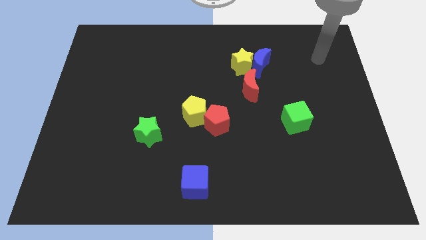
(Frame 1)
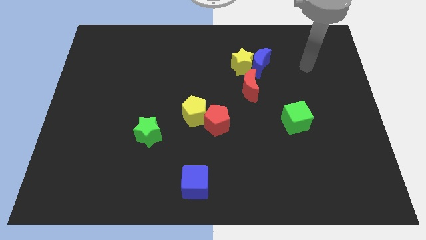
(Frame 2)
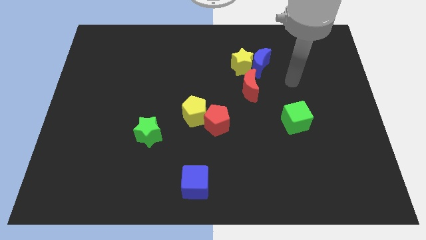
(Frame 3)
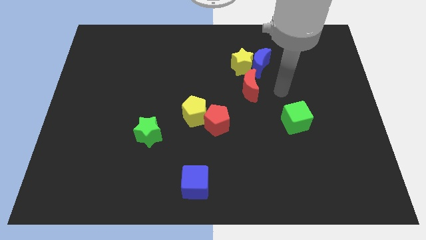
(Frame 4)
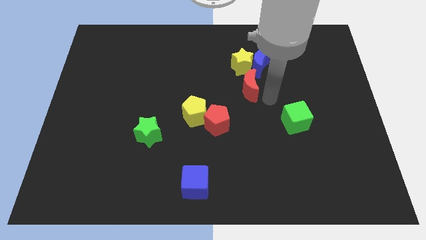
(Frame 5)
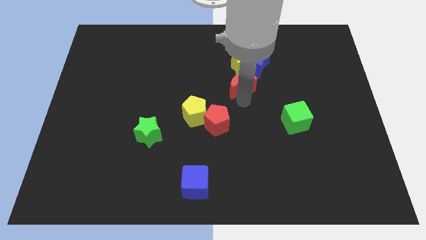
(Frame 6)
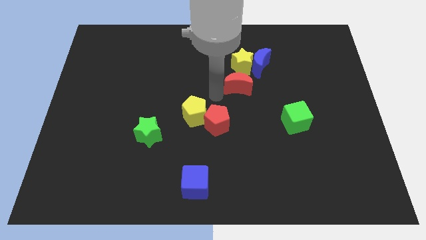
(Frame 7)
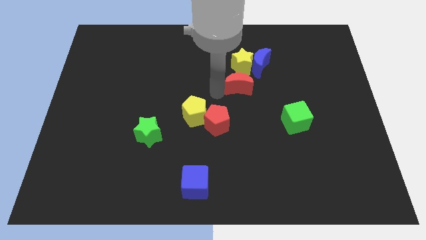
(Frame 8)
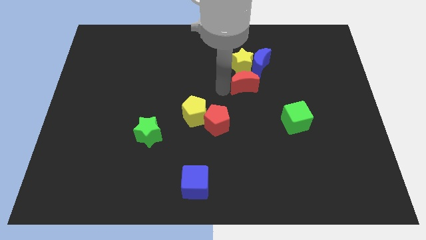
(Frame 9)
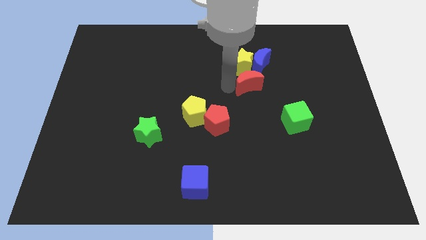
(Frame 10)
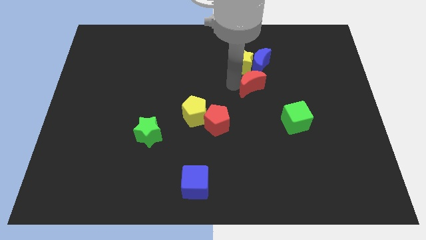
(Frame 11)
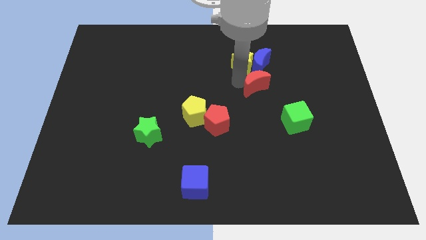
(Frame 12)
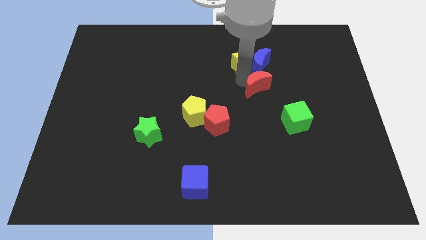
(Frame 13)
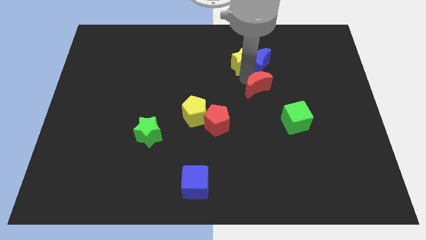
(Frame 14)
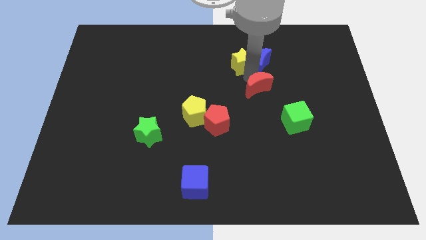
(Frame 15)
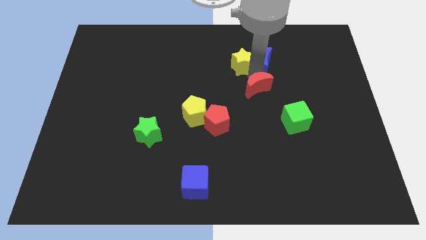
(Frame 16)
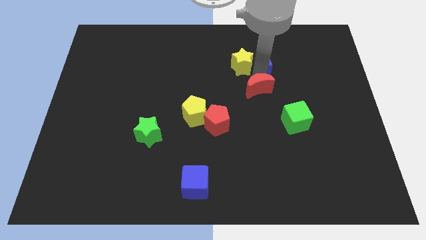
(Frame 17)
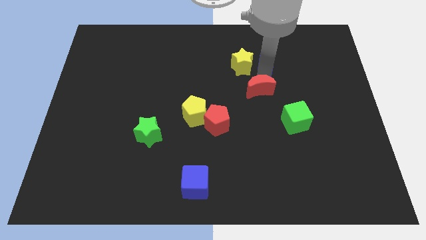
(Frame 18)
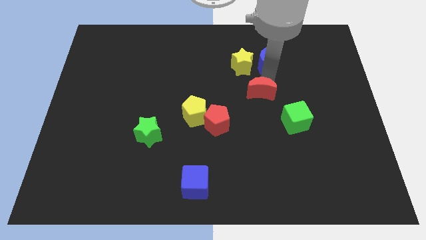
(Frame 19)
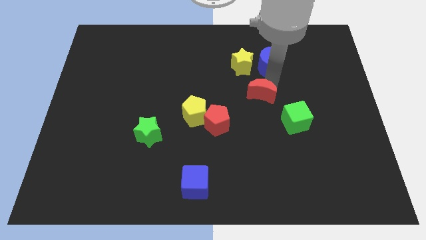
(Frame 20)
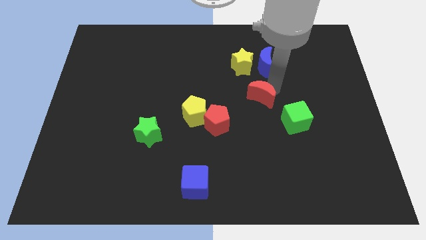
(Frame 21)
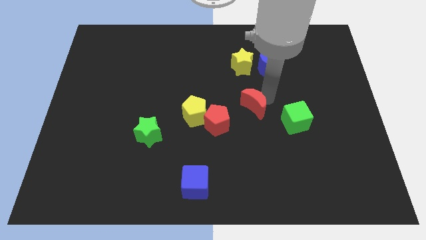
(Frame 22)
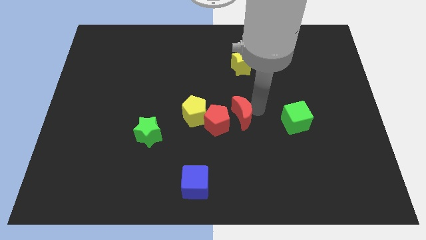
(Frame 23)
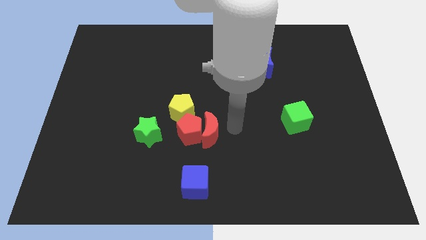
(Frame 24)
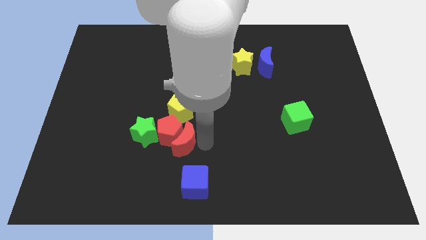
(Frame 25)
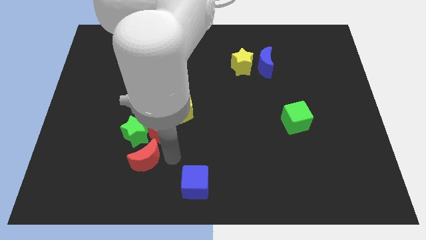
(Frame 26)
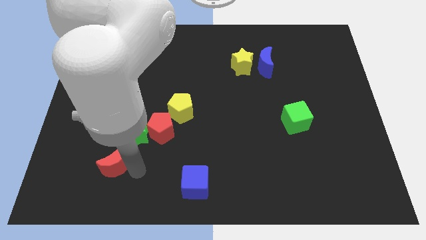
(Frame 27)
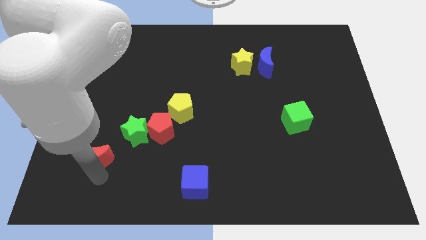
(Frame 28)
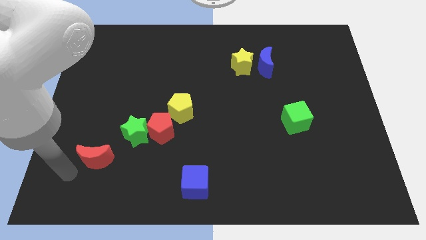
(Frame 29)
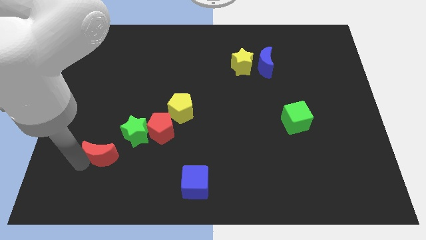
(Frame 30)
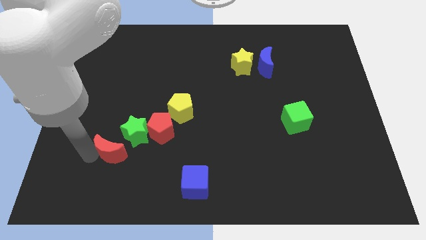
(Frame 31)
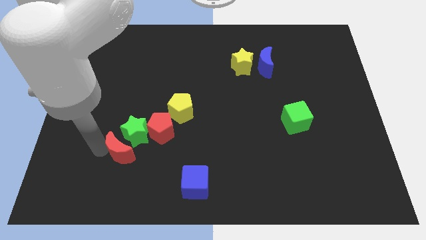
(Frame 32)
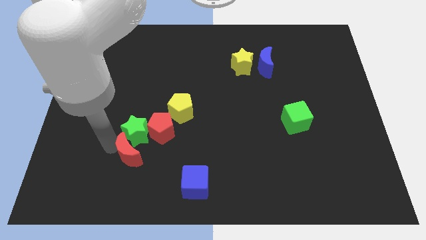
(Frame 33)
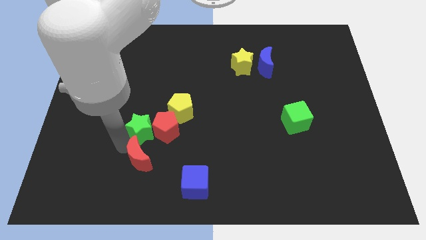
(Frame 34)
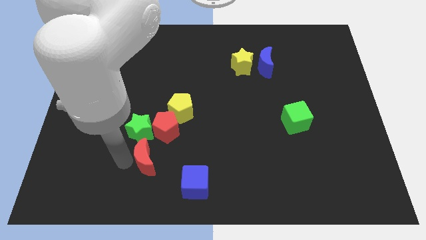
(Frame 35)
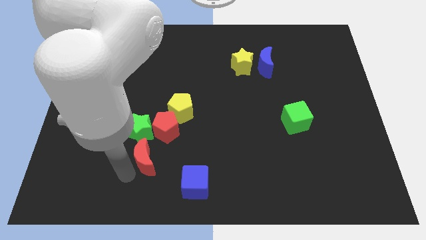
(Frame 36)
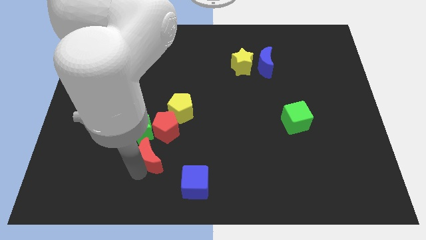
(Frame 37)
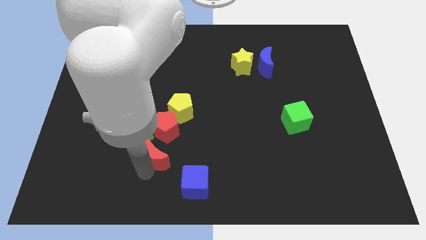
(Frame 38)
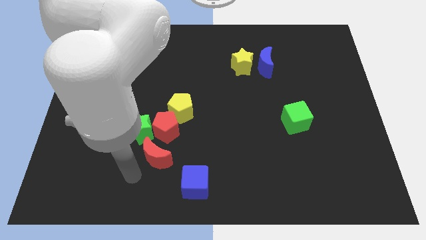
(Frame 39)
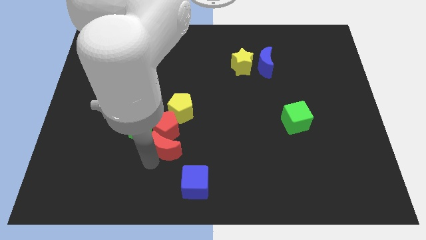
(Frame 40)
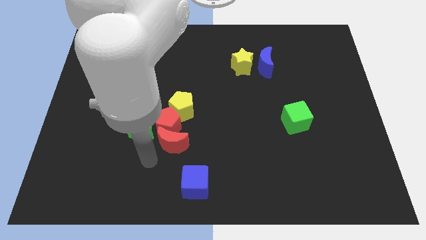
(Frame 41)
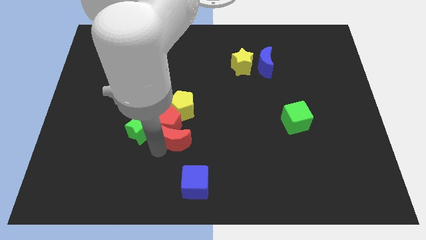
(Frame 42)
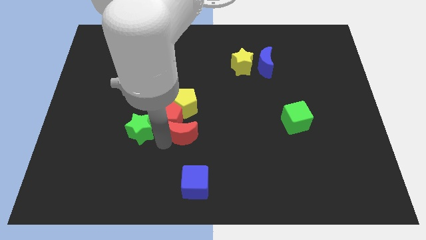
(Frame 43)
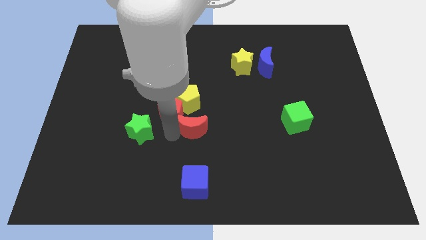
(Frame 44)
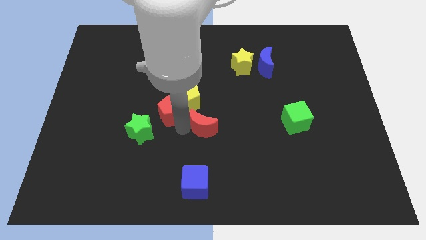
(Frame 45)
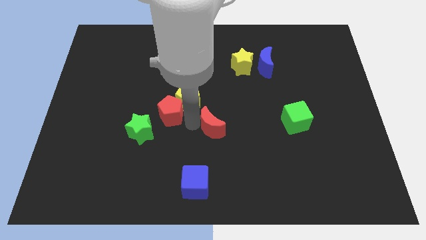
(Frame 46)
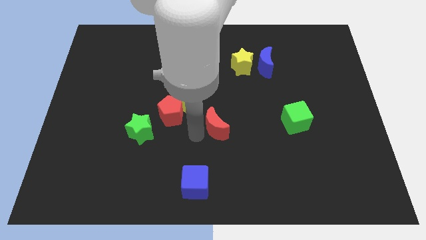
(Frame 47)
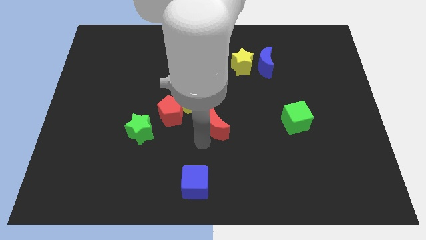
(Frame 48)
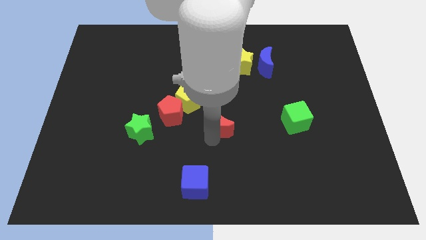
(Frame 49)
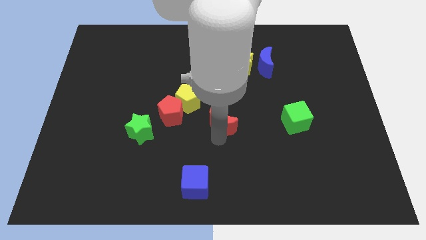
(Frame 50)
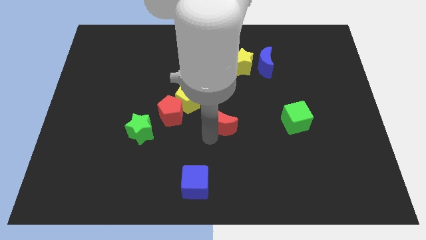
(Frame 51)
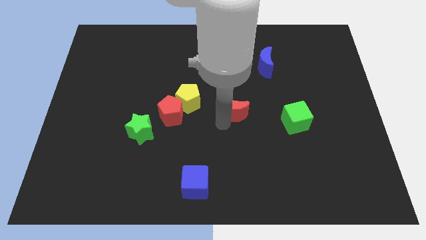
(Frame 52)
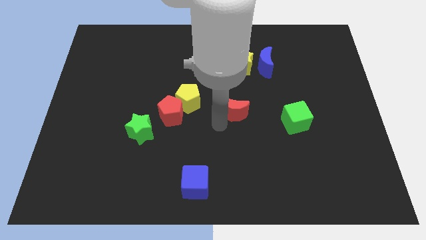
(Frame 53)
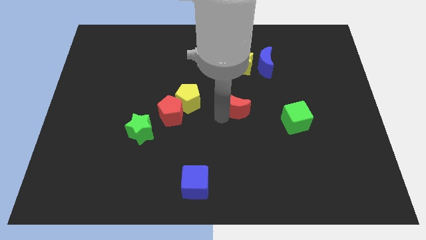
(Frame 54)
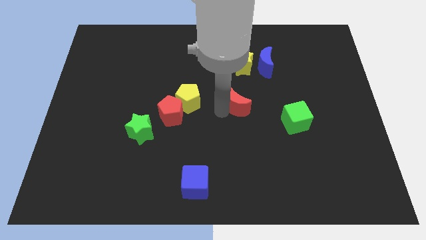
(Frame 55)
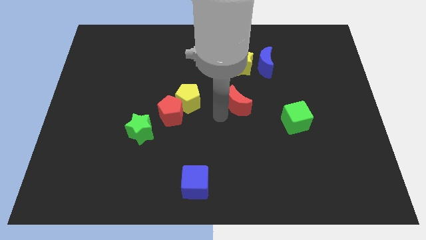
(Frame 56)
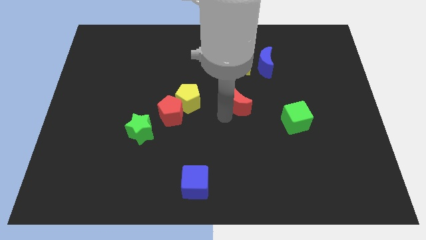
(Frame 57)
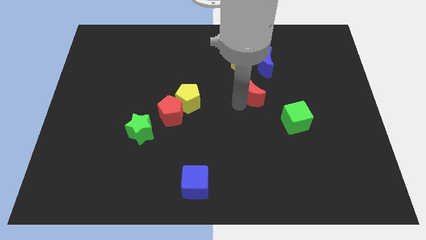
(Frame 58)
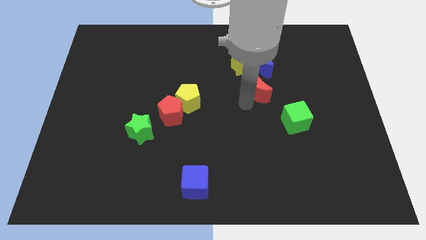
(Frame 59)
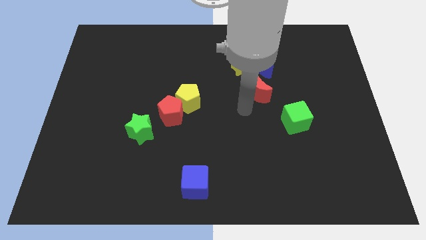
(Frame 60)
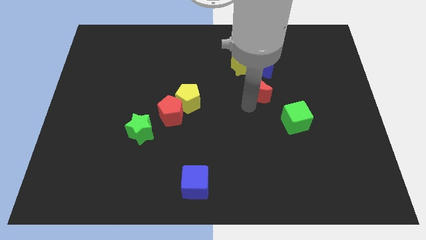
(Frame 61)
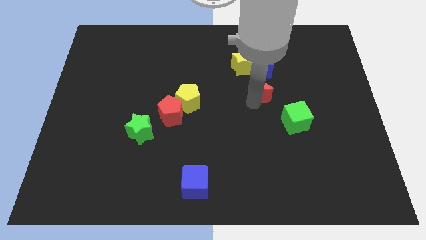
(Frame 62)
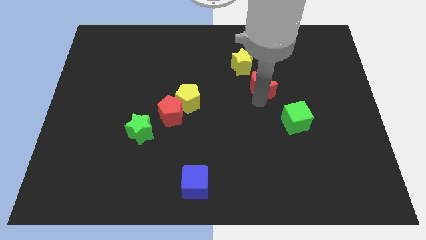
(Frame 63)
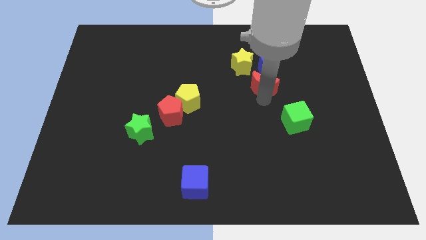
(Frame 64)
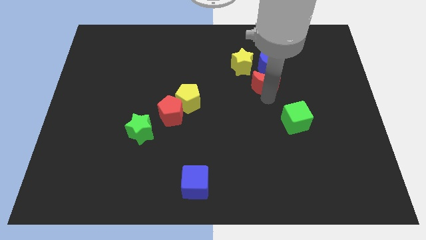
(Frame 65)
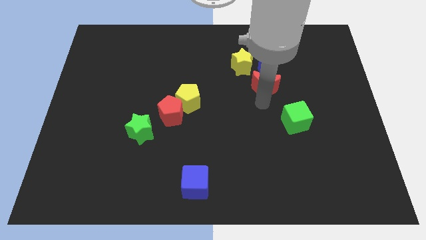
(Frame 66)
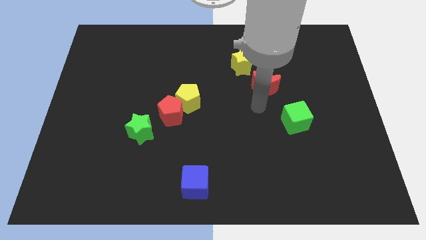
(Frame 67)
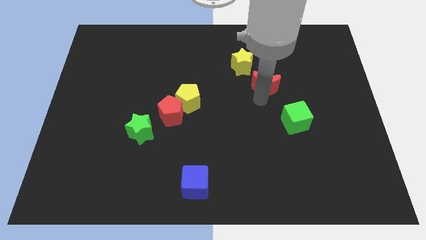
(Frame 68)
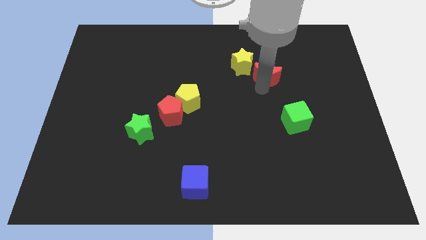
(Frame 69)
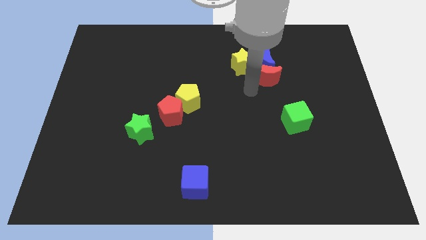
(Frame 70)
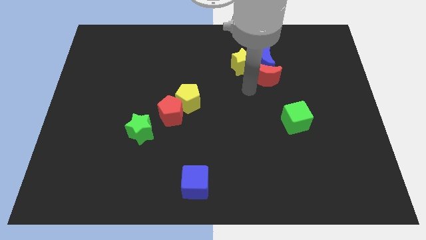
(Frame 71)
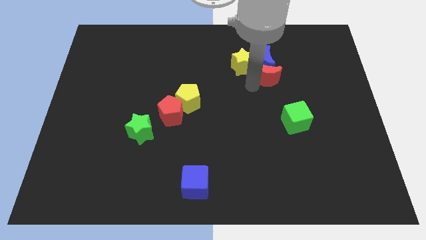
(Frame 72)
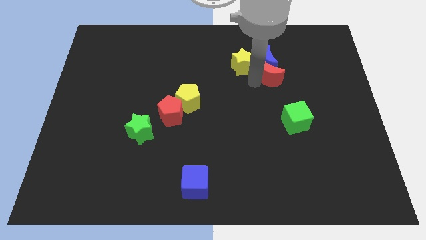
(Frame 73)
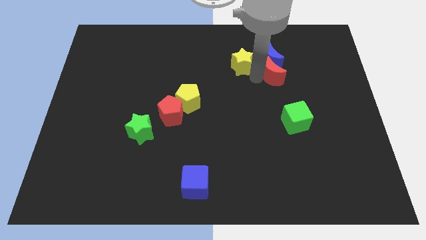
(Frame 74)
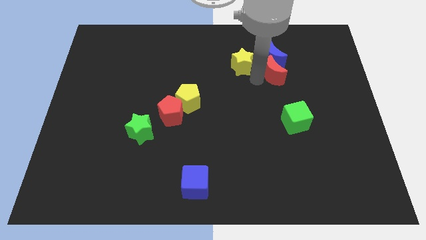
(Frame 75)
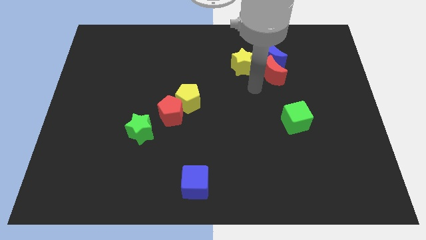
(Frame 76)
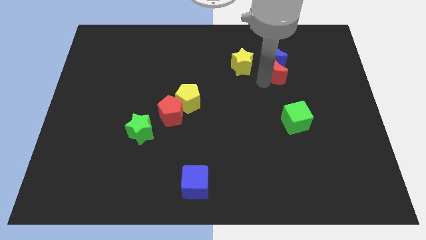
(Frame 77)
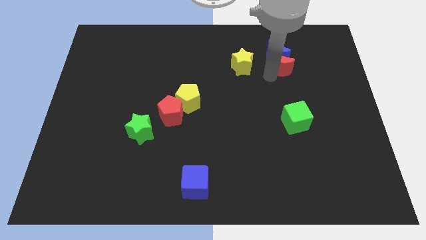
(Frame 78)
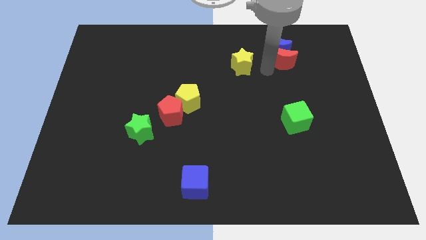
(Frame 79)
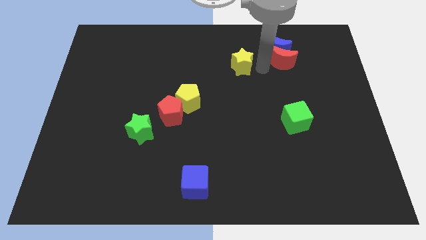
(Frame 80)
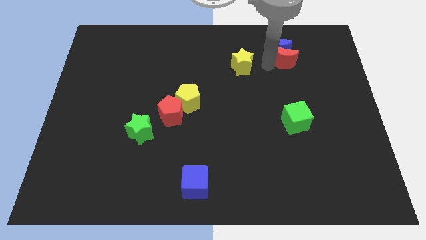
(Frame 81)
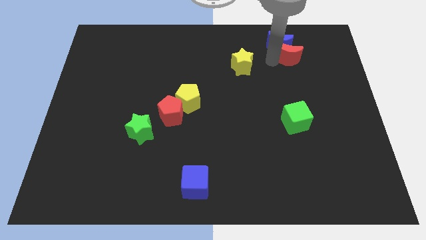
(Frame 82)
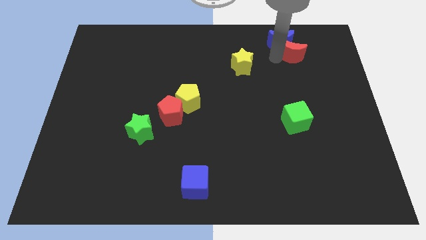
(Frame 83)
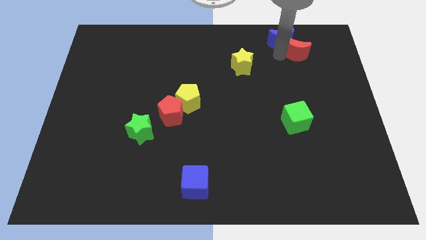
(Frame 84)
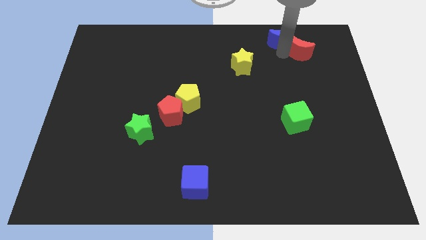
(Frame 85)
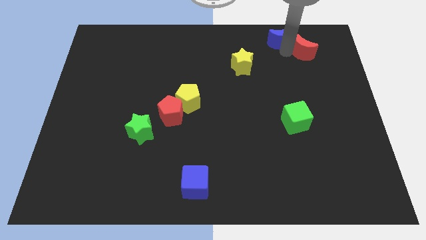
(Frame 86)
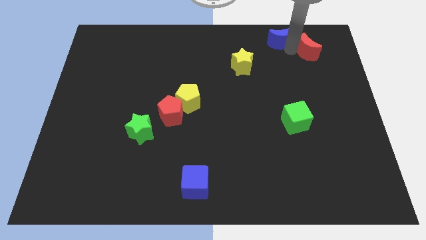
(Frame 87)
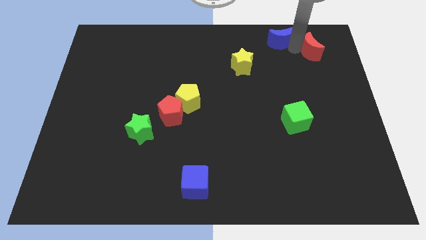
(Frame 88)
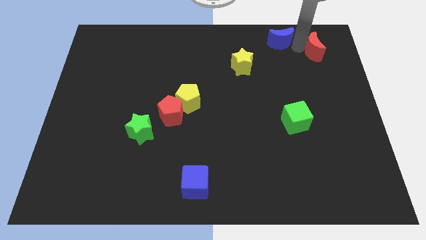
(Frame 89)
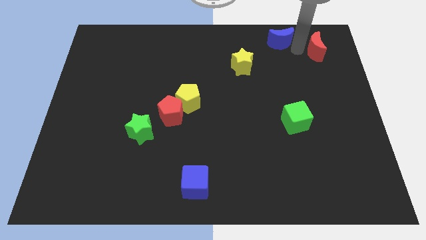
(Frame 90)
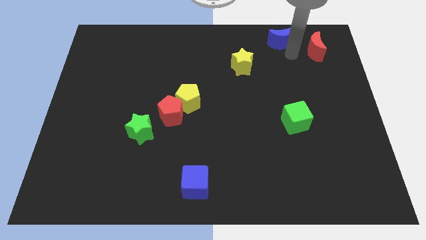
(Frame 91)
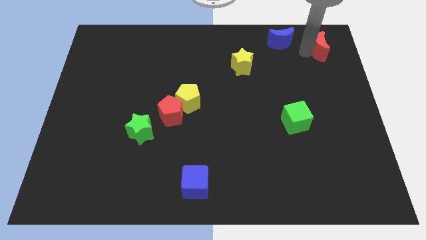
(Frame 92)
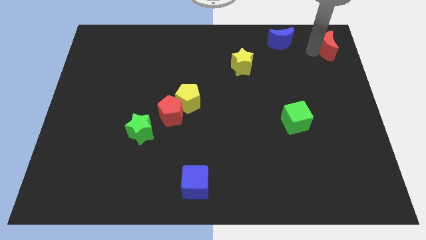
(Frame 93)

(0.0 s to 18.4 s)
push the red moon to the top right of the board
